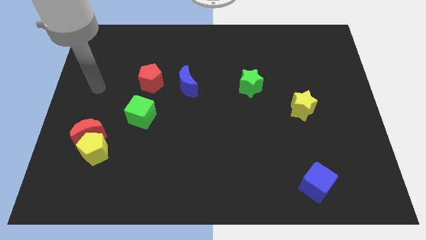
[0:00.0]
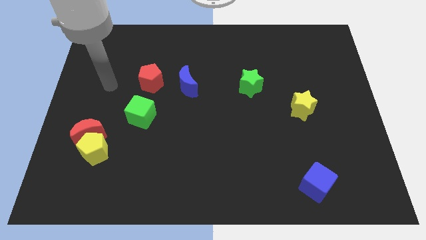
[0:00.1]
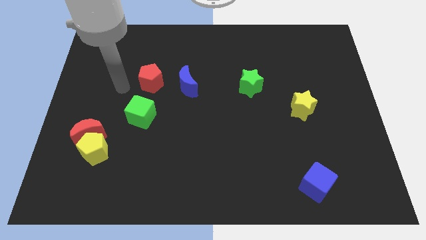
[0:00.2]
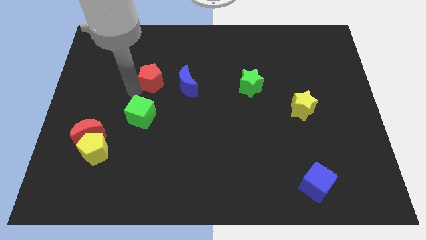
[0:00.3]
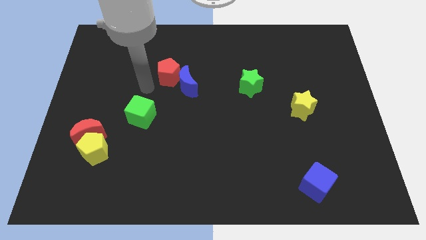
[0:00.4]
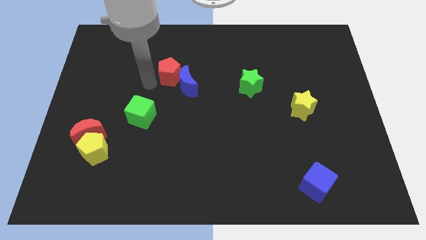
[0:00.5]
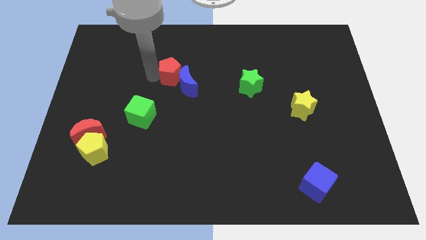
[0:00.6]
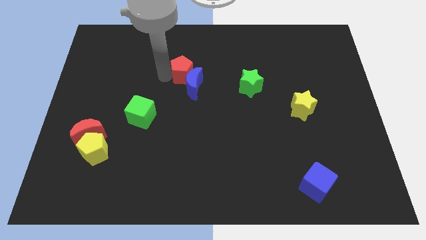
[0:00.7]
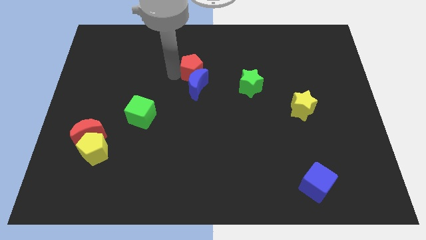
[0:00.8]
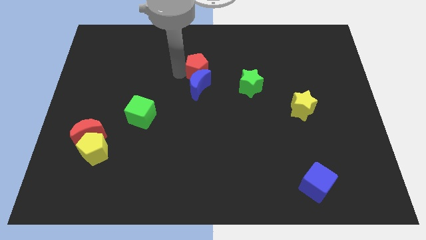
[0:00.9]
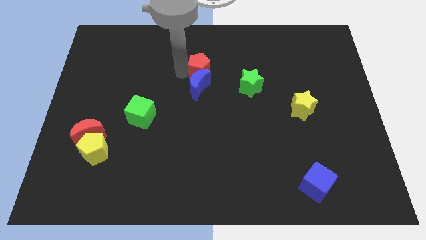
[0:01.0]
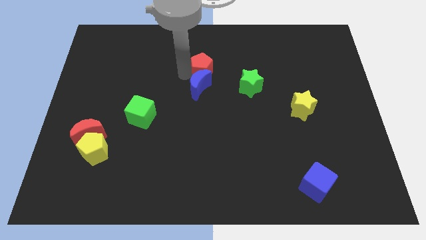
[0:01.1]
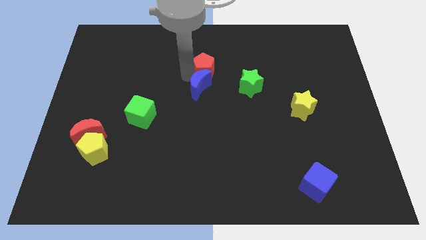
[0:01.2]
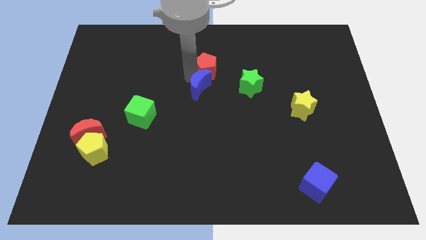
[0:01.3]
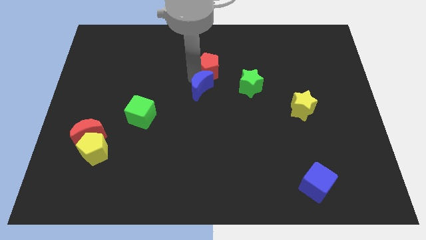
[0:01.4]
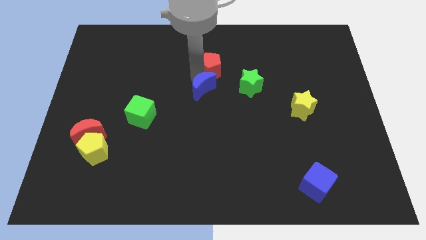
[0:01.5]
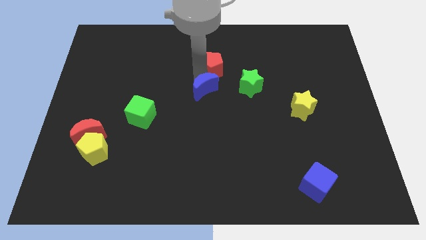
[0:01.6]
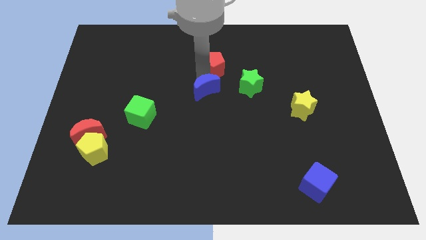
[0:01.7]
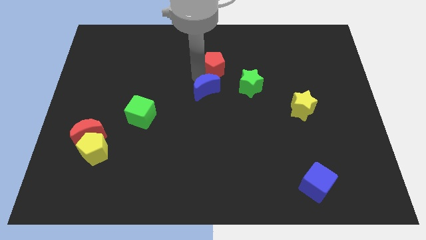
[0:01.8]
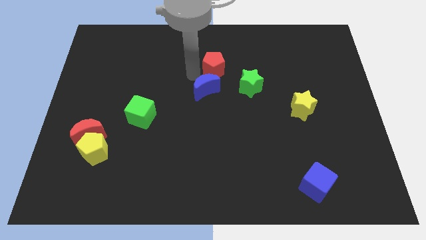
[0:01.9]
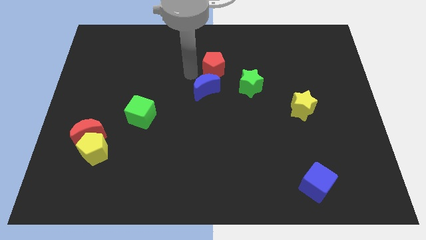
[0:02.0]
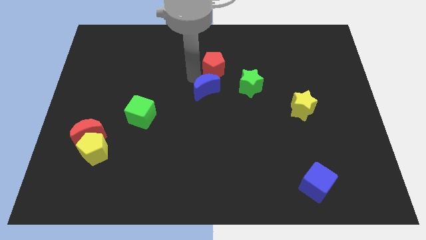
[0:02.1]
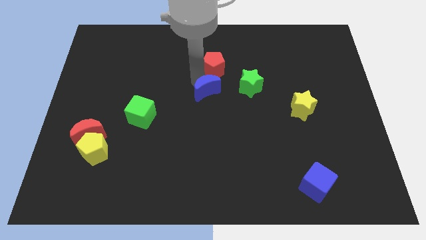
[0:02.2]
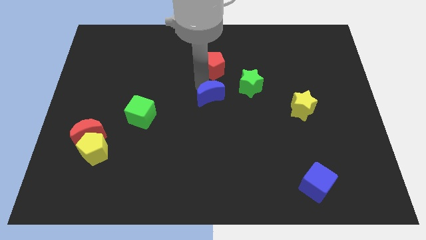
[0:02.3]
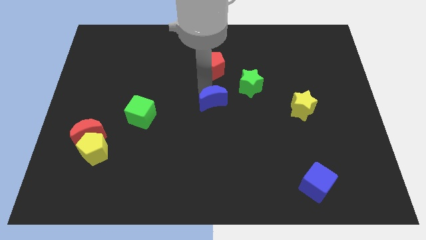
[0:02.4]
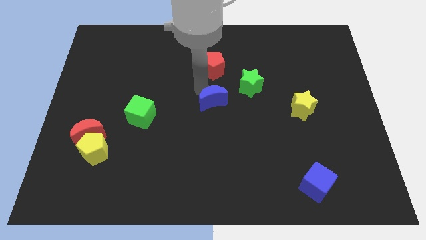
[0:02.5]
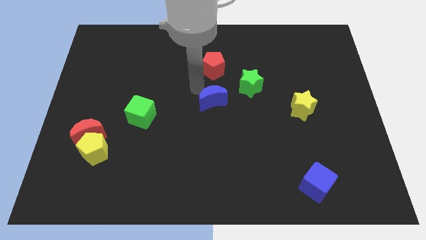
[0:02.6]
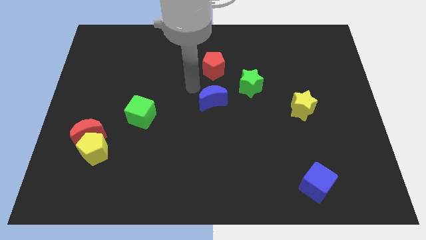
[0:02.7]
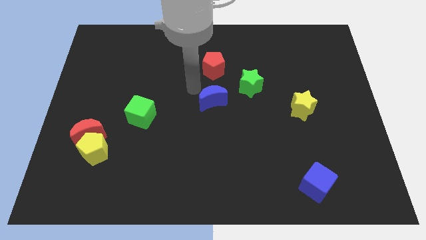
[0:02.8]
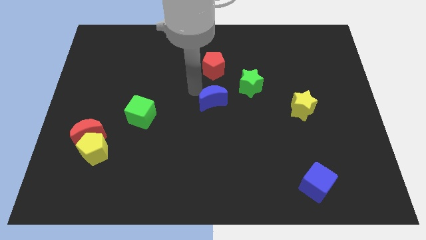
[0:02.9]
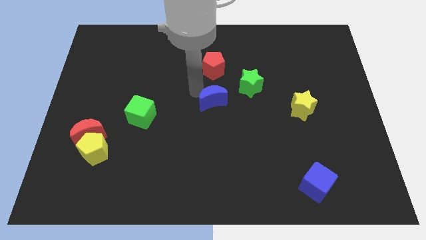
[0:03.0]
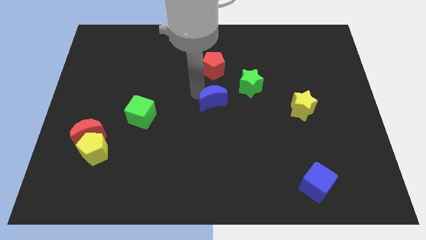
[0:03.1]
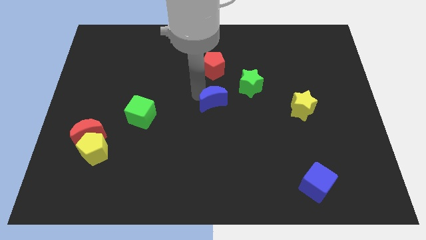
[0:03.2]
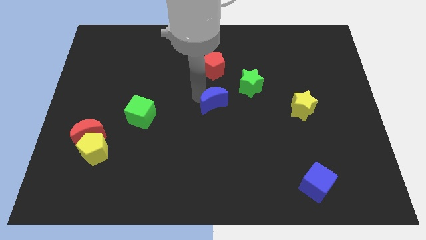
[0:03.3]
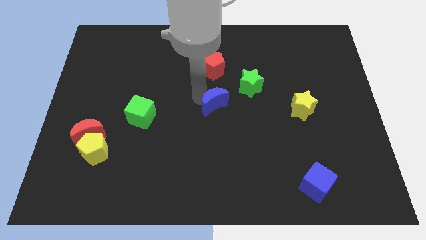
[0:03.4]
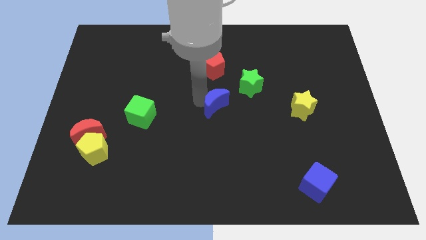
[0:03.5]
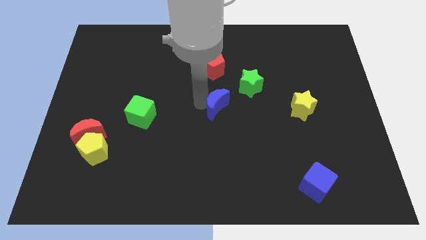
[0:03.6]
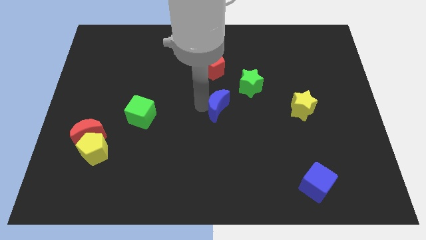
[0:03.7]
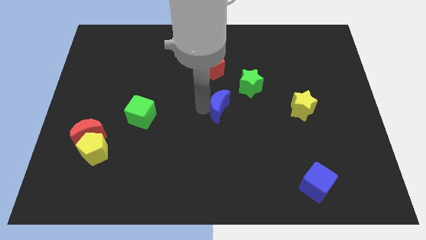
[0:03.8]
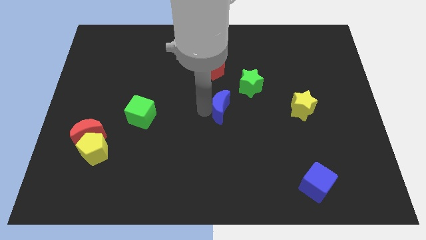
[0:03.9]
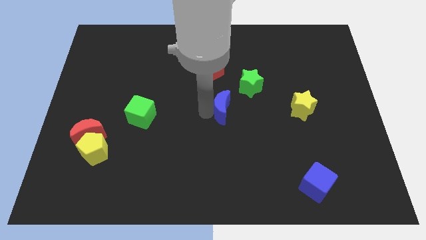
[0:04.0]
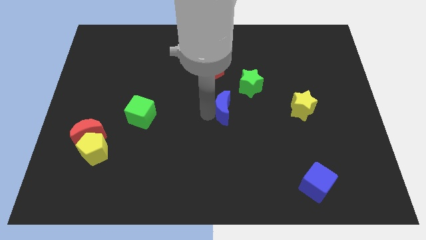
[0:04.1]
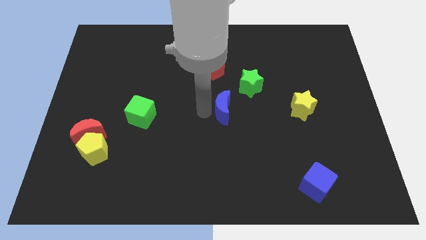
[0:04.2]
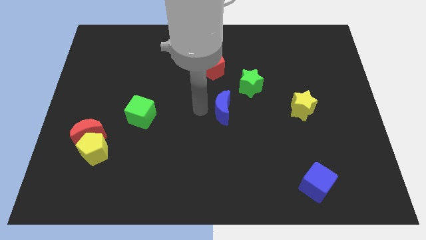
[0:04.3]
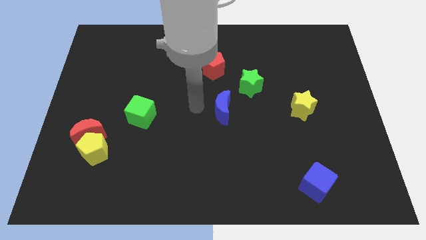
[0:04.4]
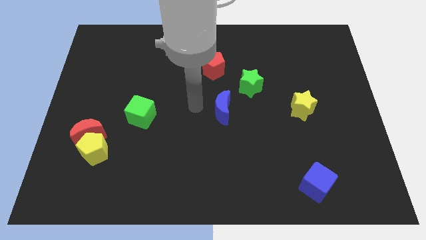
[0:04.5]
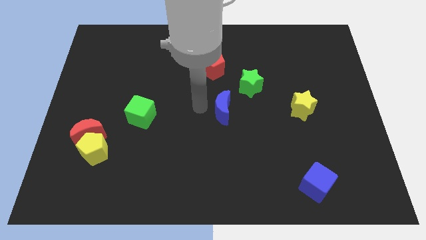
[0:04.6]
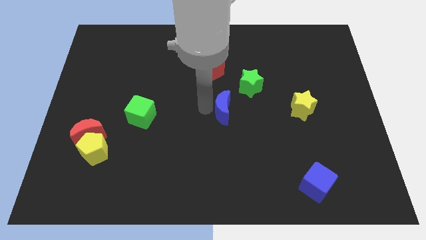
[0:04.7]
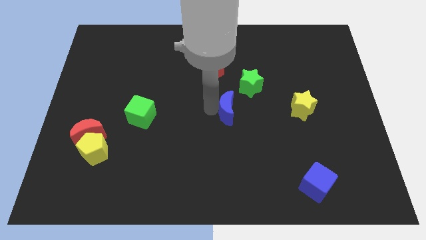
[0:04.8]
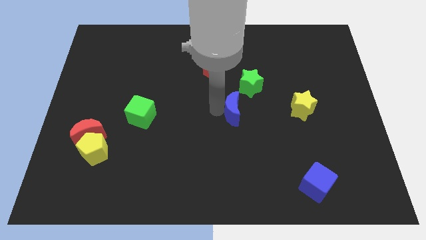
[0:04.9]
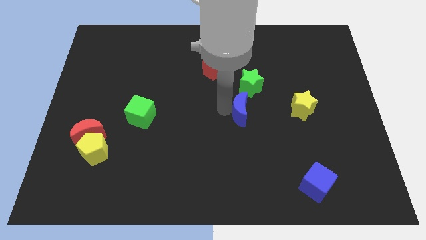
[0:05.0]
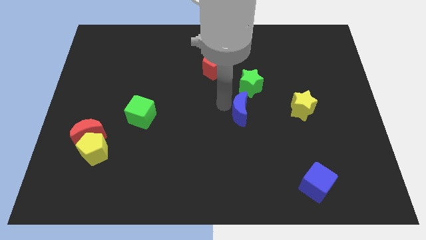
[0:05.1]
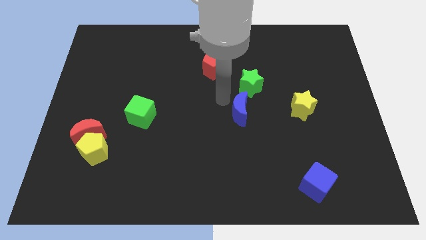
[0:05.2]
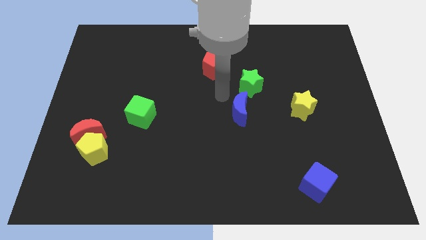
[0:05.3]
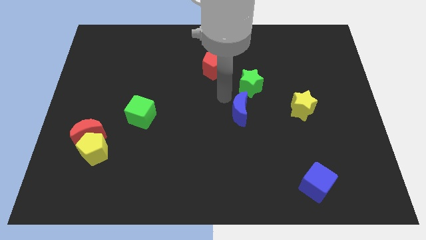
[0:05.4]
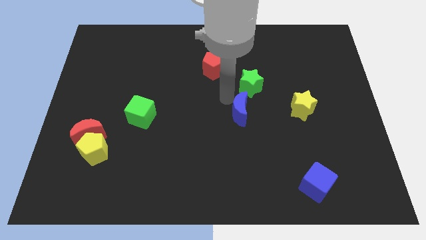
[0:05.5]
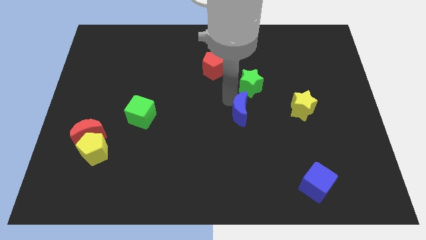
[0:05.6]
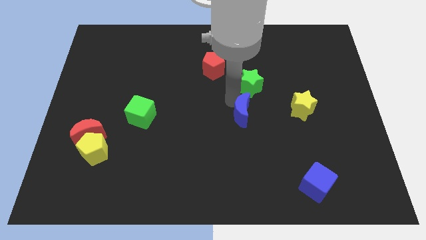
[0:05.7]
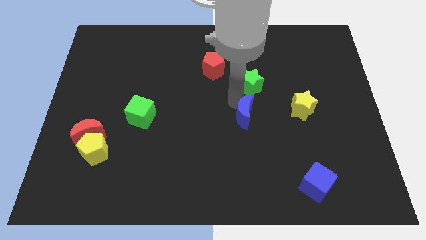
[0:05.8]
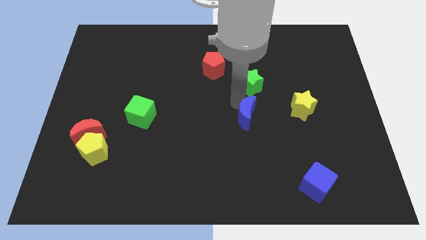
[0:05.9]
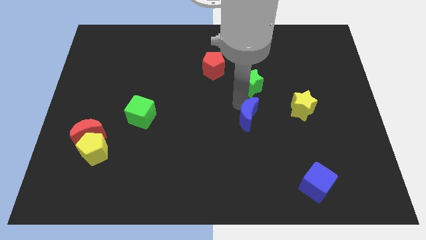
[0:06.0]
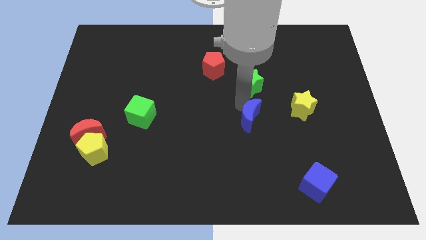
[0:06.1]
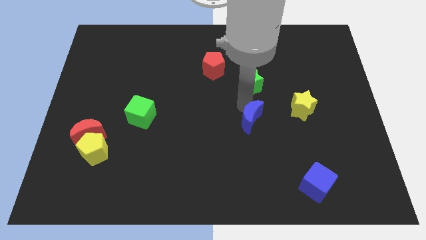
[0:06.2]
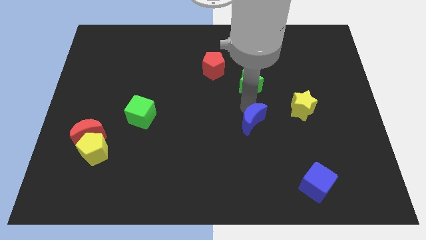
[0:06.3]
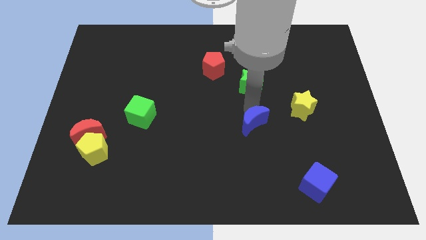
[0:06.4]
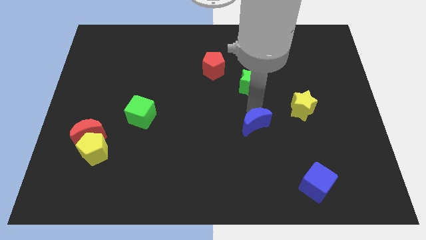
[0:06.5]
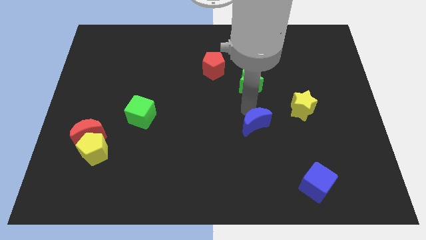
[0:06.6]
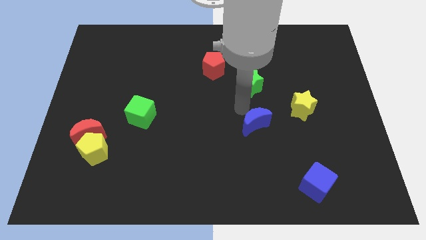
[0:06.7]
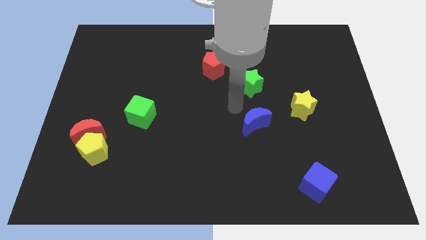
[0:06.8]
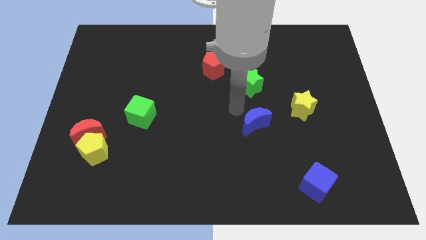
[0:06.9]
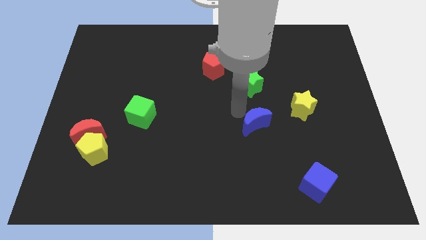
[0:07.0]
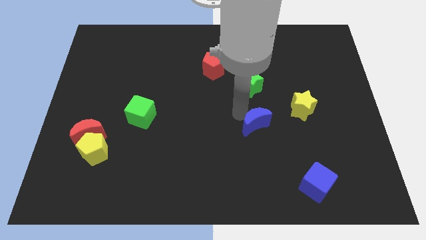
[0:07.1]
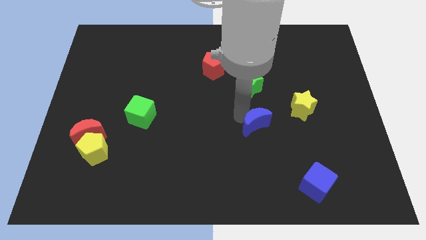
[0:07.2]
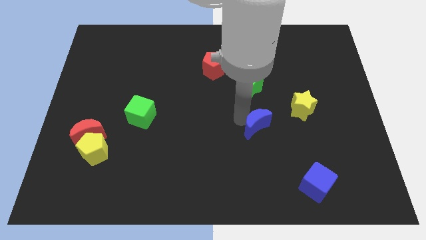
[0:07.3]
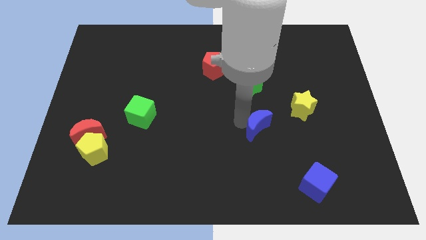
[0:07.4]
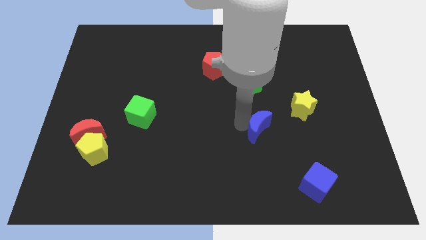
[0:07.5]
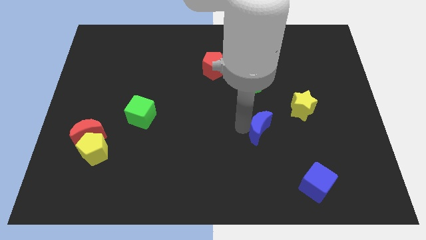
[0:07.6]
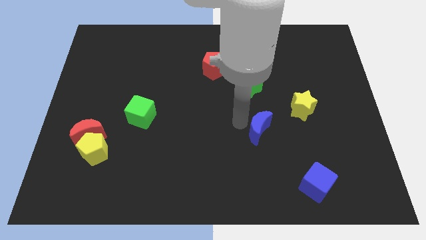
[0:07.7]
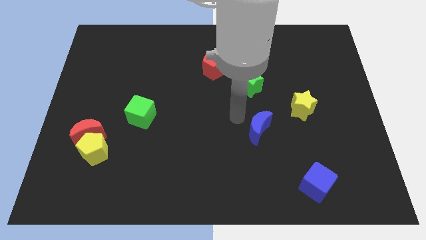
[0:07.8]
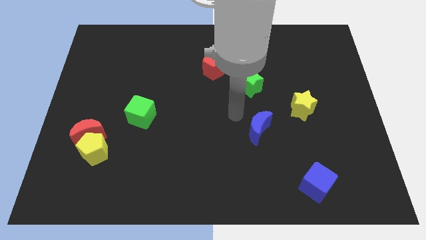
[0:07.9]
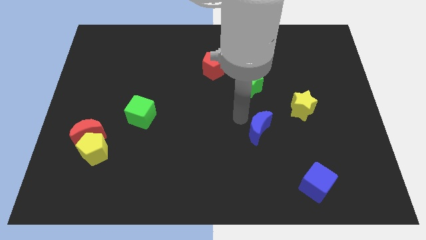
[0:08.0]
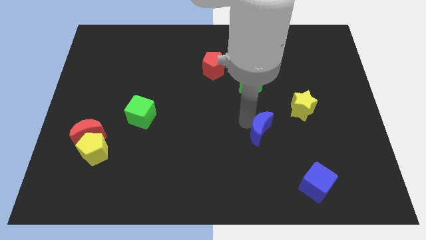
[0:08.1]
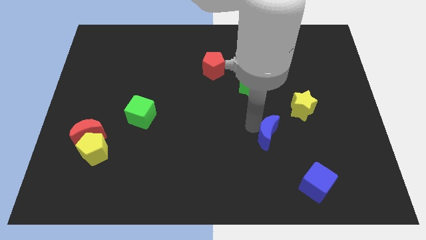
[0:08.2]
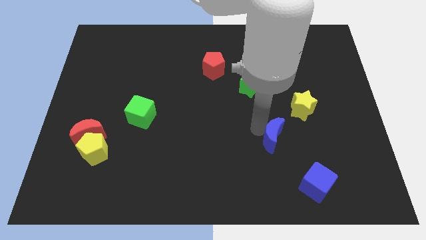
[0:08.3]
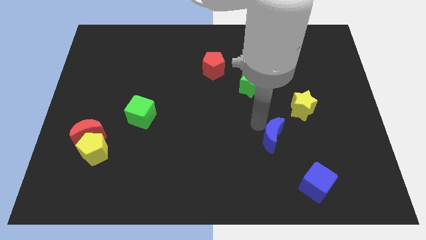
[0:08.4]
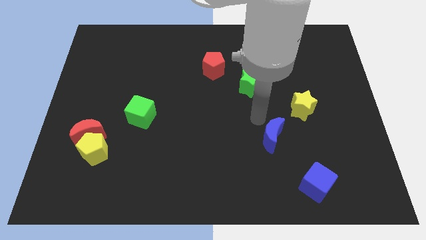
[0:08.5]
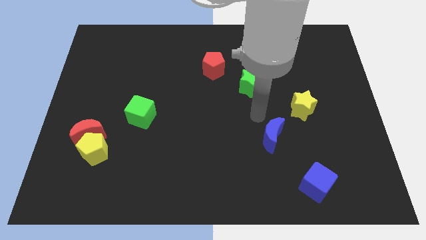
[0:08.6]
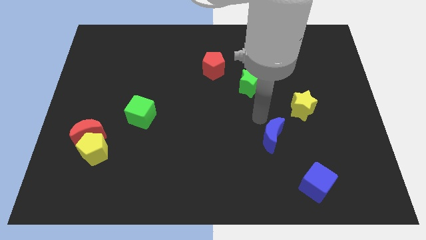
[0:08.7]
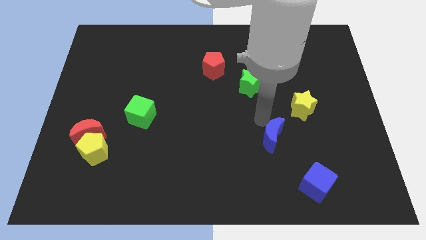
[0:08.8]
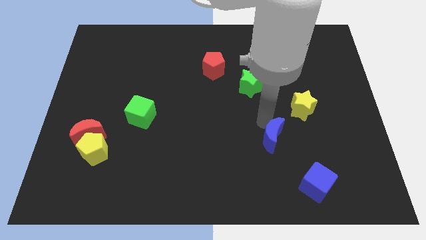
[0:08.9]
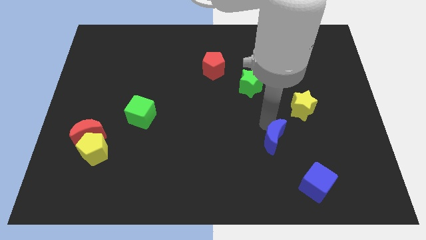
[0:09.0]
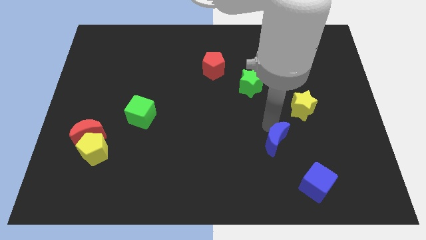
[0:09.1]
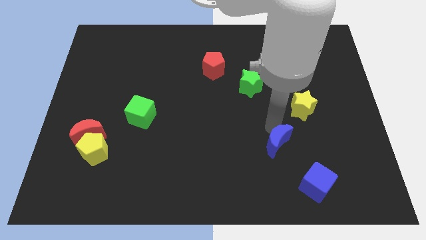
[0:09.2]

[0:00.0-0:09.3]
put the blue moon to the top left of the blue cube
